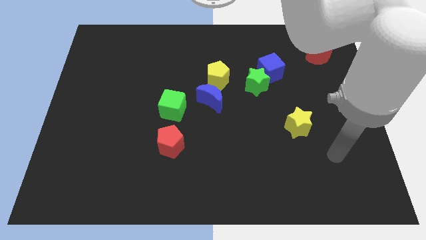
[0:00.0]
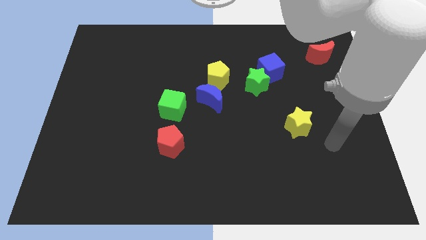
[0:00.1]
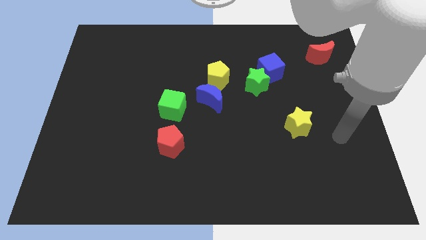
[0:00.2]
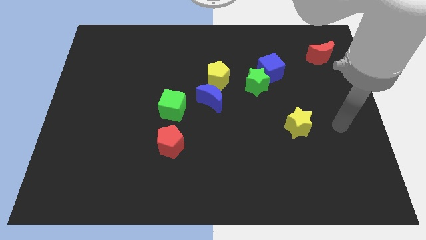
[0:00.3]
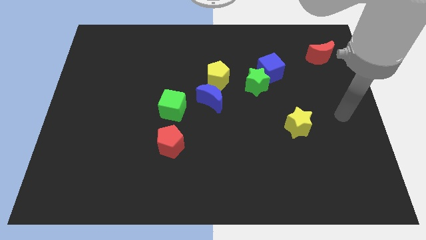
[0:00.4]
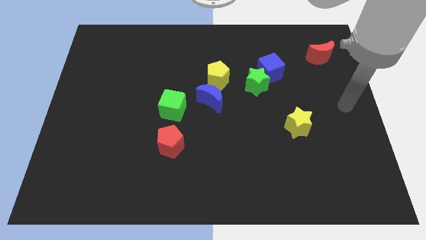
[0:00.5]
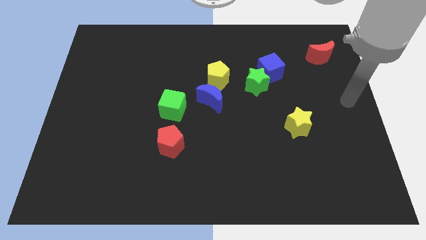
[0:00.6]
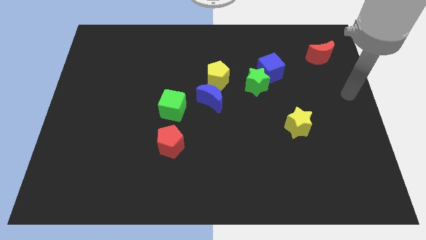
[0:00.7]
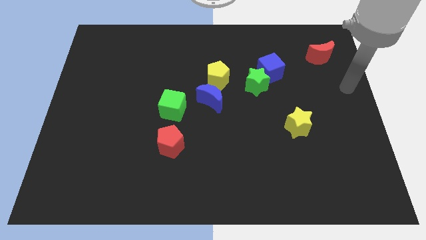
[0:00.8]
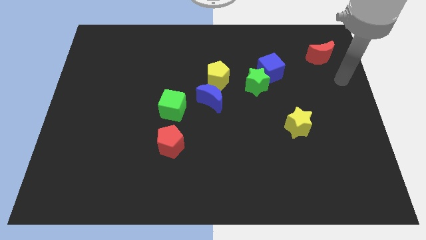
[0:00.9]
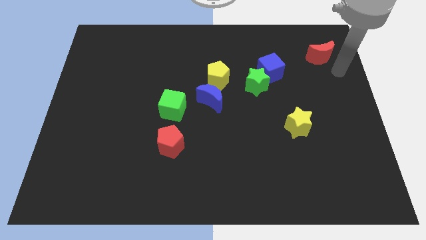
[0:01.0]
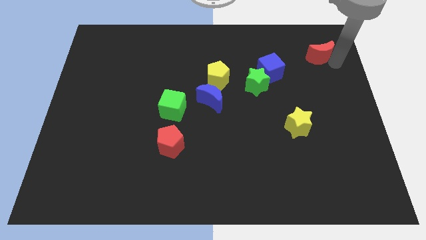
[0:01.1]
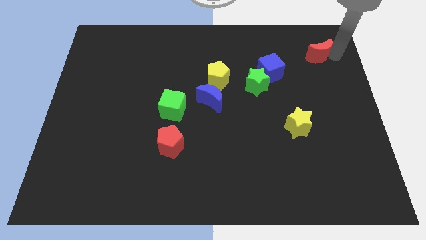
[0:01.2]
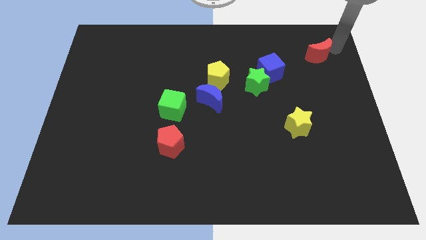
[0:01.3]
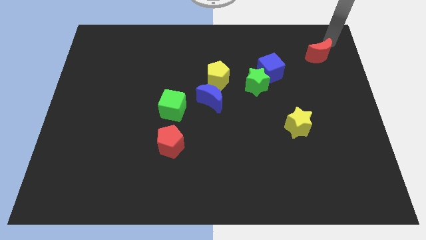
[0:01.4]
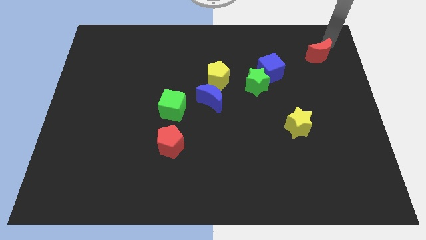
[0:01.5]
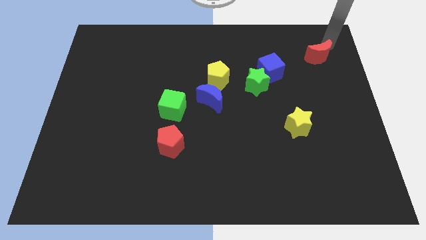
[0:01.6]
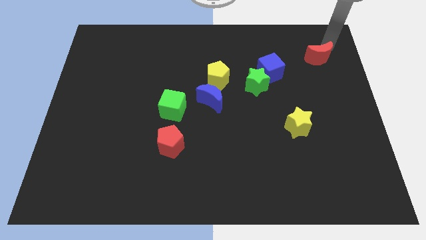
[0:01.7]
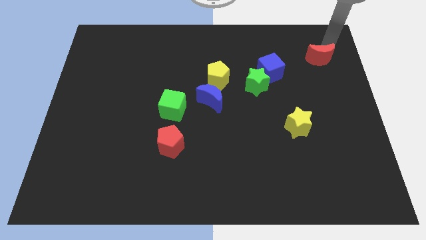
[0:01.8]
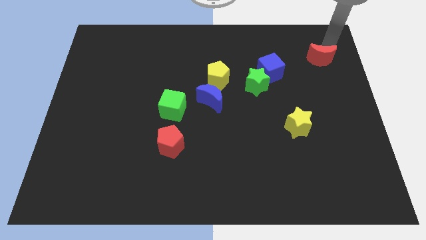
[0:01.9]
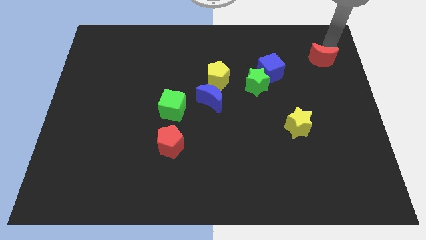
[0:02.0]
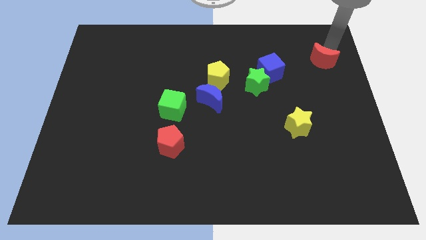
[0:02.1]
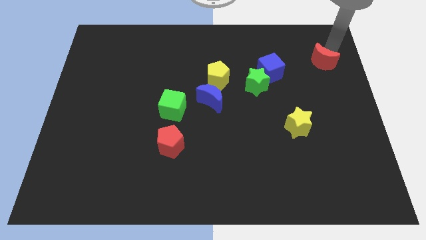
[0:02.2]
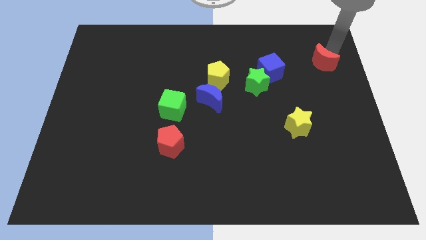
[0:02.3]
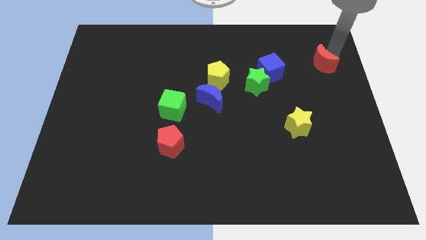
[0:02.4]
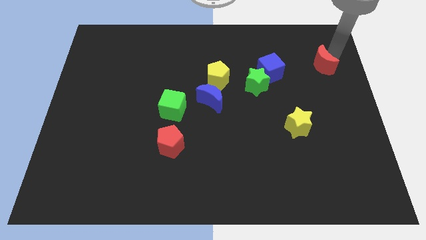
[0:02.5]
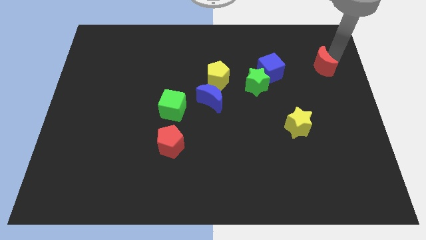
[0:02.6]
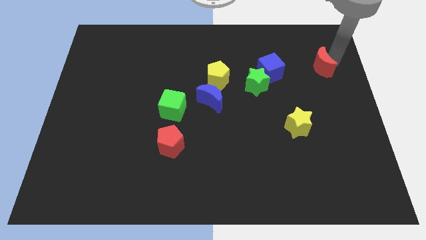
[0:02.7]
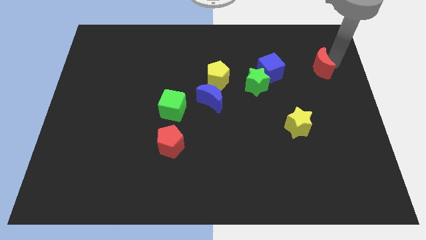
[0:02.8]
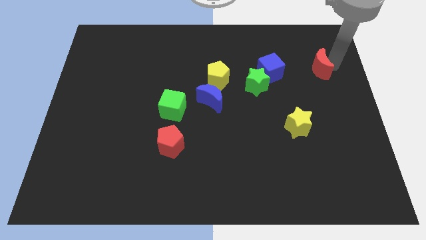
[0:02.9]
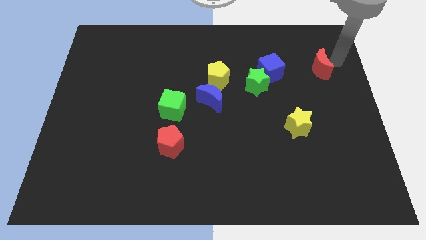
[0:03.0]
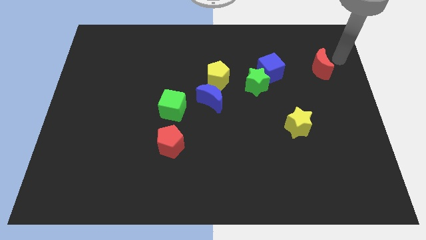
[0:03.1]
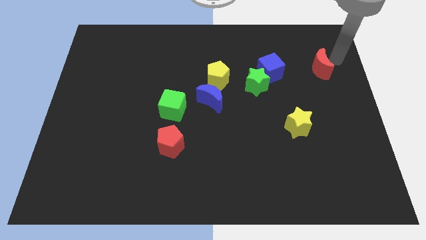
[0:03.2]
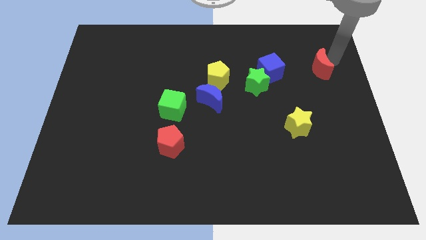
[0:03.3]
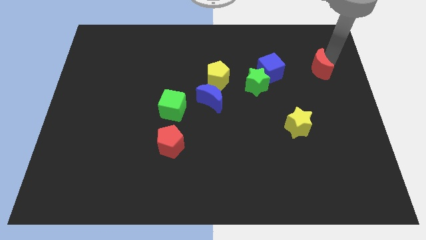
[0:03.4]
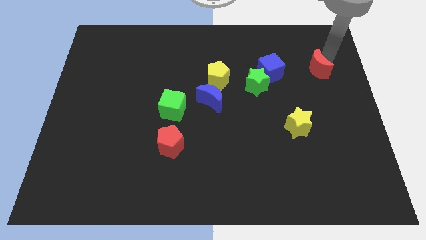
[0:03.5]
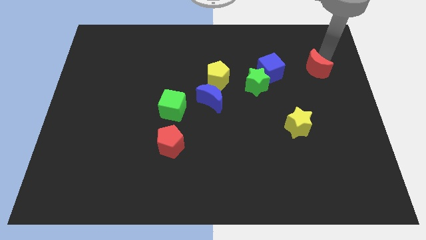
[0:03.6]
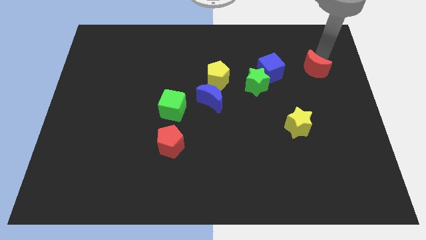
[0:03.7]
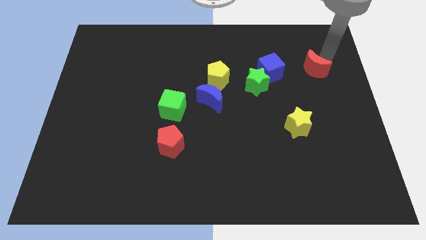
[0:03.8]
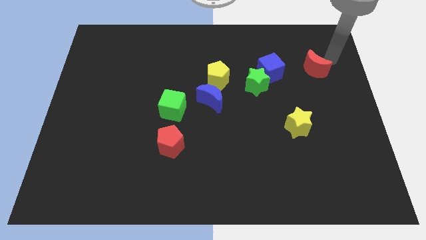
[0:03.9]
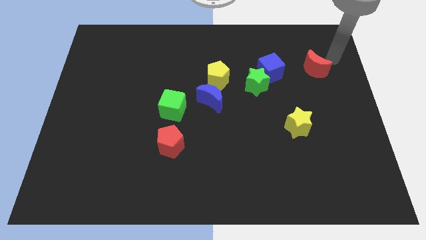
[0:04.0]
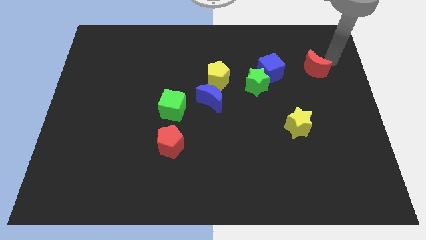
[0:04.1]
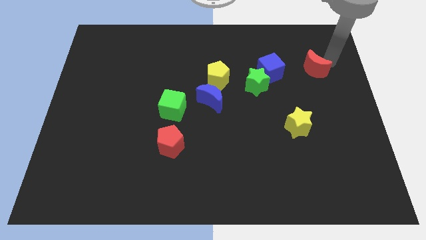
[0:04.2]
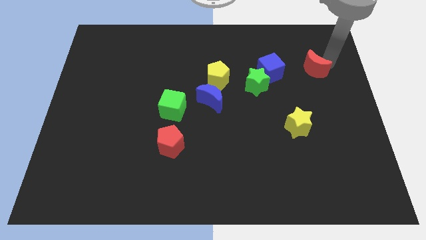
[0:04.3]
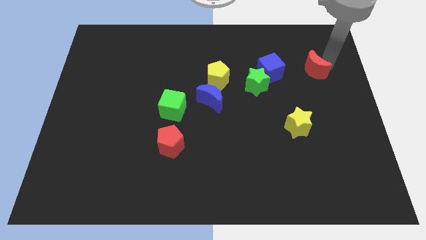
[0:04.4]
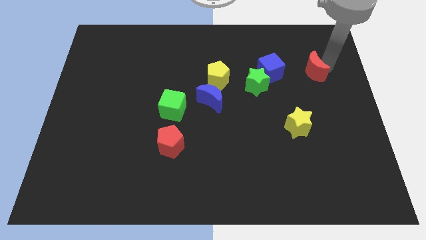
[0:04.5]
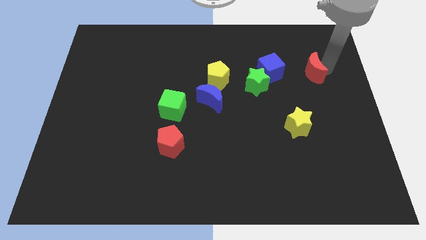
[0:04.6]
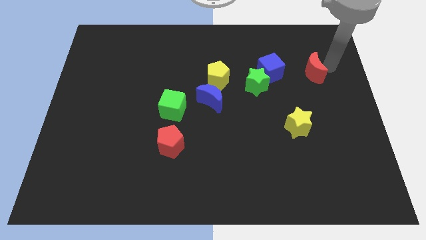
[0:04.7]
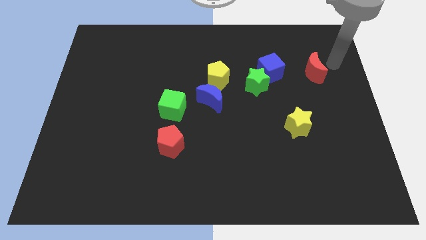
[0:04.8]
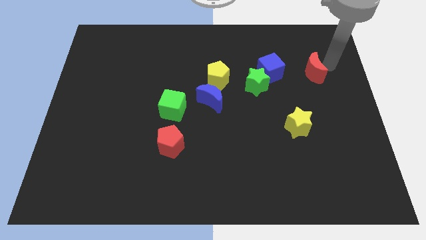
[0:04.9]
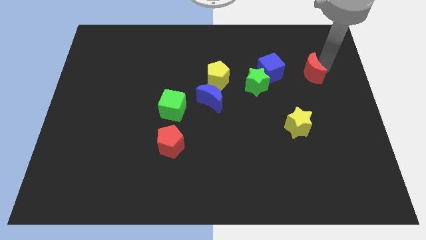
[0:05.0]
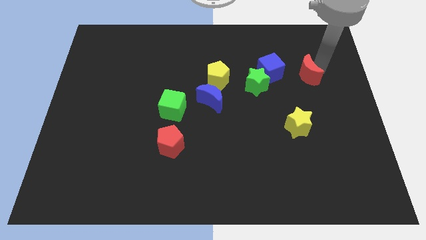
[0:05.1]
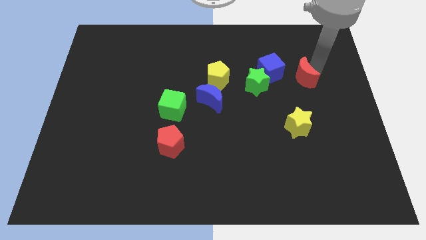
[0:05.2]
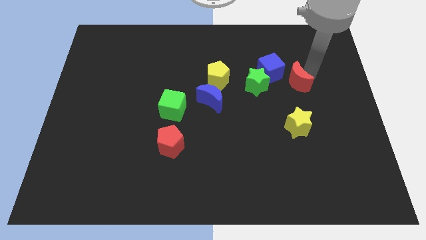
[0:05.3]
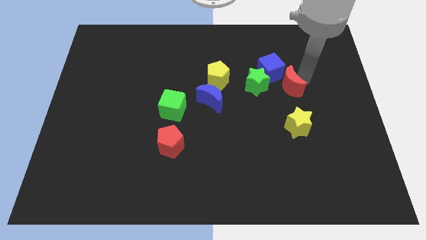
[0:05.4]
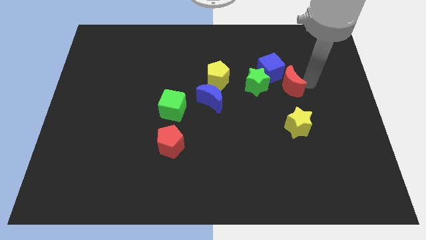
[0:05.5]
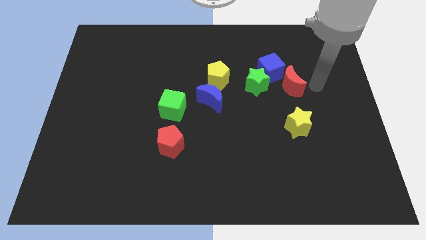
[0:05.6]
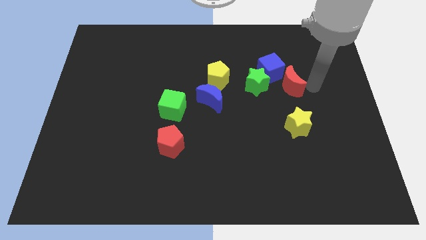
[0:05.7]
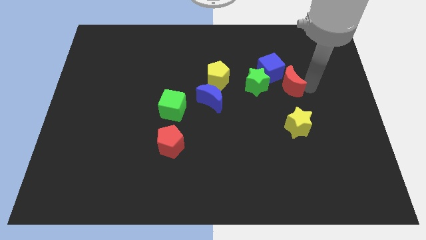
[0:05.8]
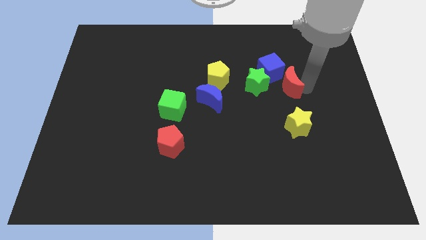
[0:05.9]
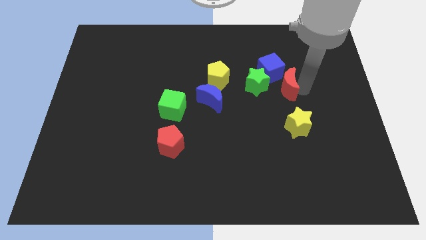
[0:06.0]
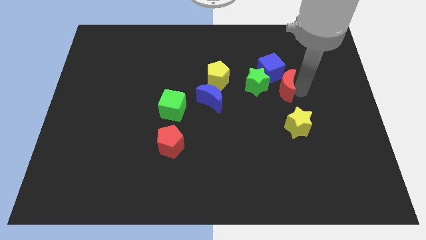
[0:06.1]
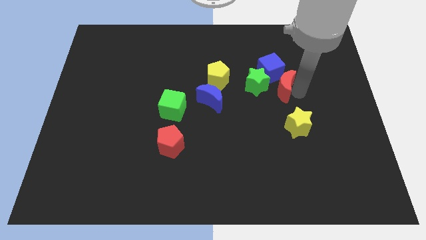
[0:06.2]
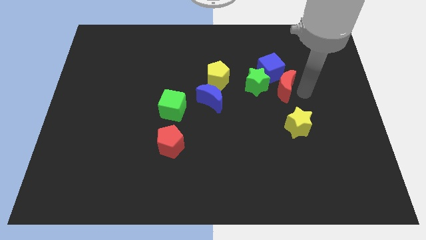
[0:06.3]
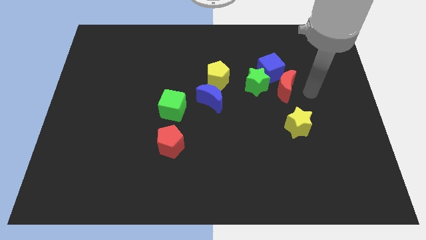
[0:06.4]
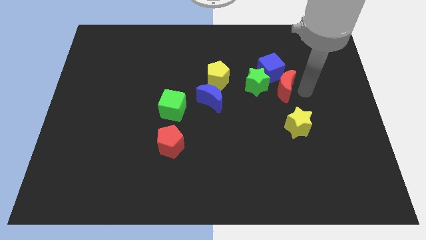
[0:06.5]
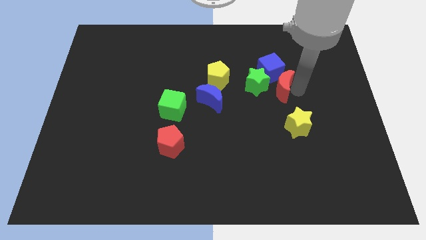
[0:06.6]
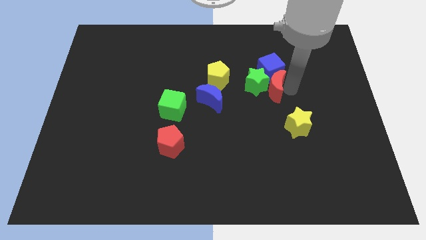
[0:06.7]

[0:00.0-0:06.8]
move the red moon next to the green star

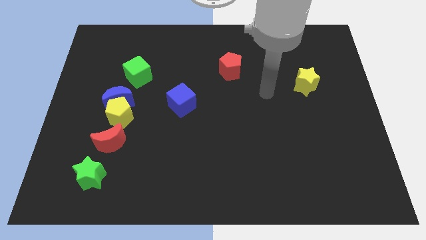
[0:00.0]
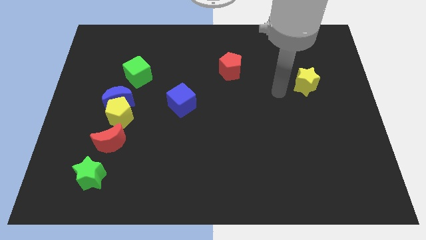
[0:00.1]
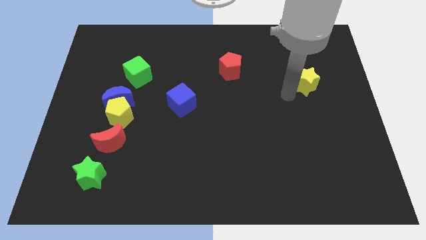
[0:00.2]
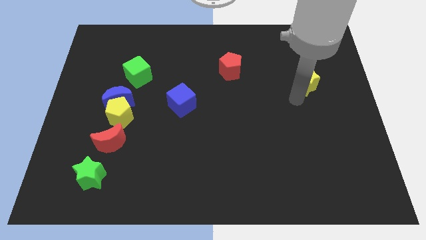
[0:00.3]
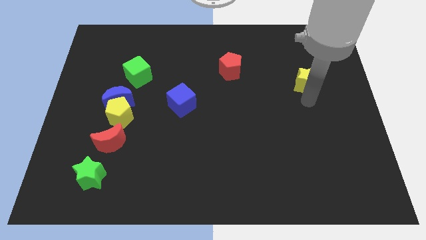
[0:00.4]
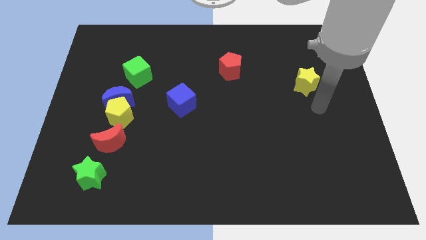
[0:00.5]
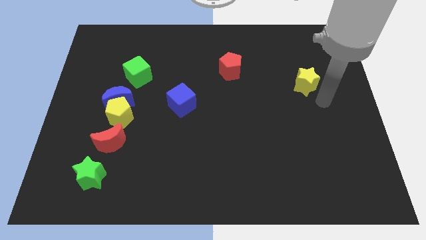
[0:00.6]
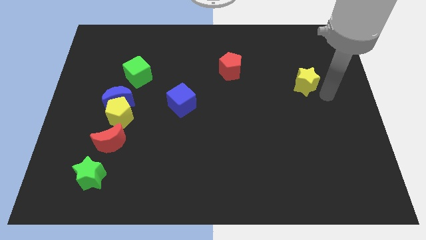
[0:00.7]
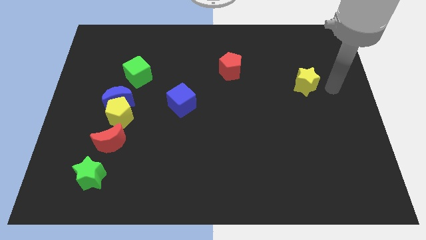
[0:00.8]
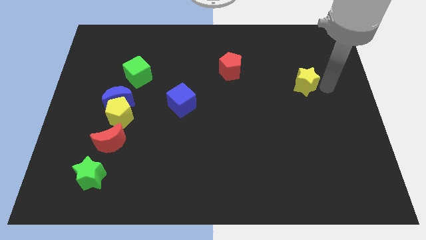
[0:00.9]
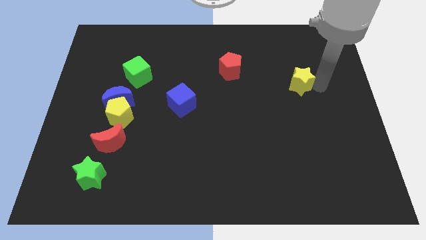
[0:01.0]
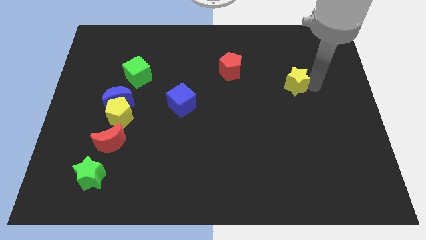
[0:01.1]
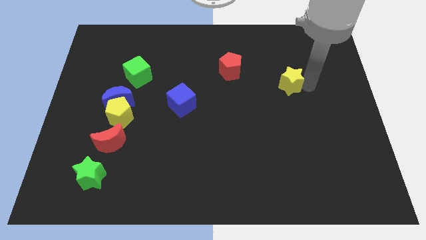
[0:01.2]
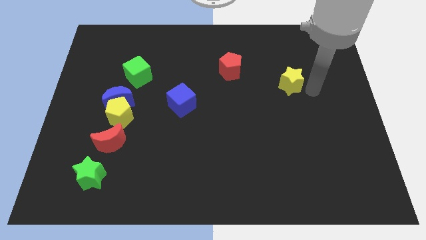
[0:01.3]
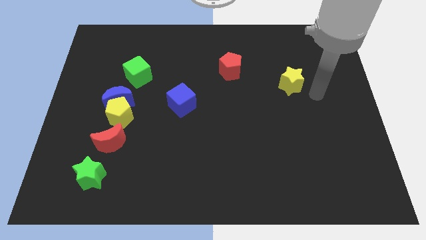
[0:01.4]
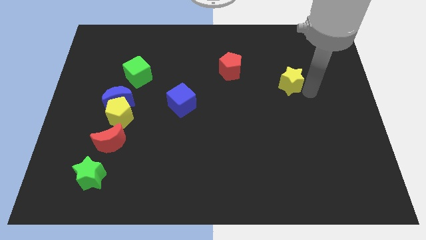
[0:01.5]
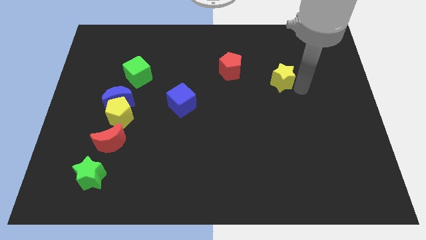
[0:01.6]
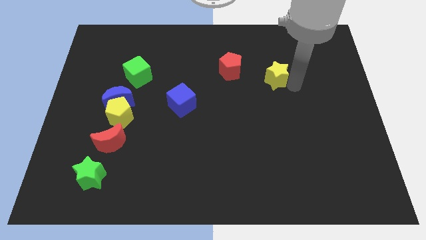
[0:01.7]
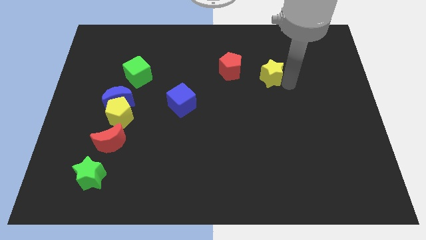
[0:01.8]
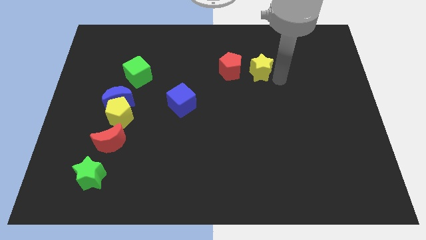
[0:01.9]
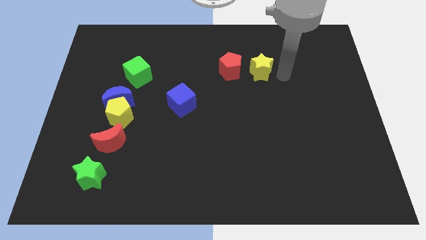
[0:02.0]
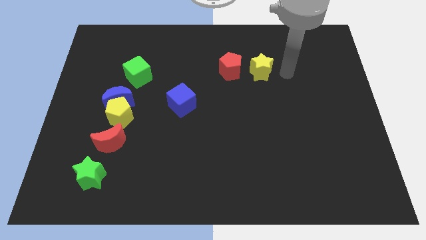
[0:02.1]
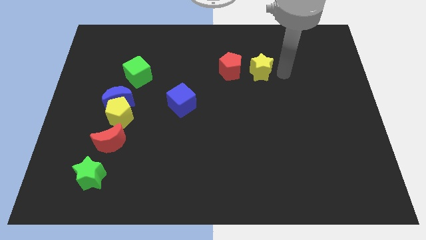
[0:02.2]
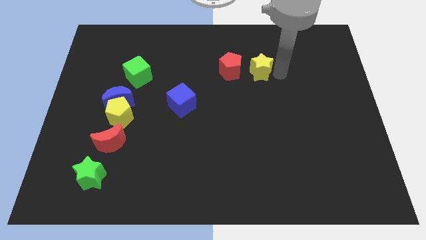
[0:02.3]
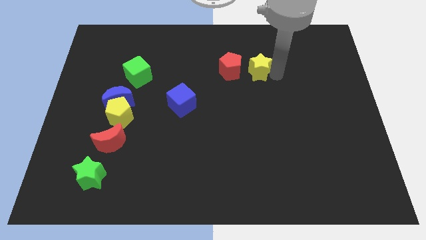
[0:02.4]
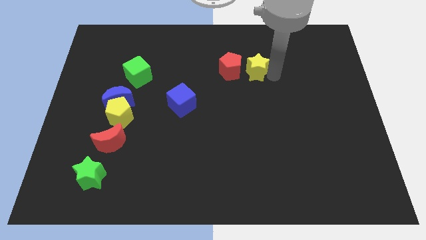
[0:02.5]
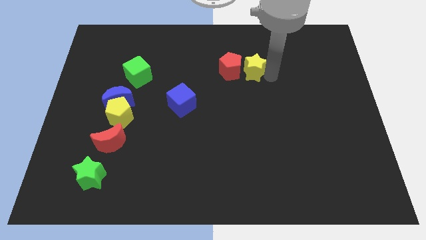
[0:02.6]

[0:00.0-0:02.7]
put the yellow star to the red pentagon
